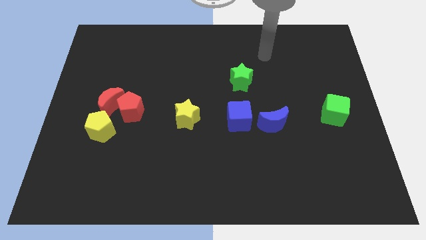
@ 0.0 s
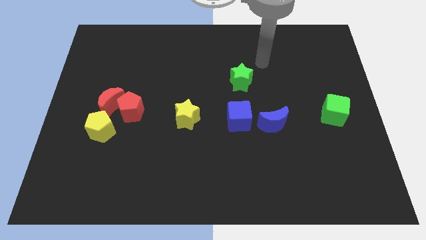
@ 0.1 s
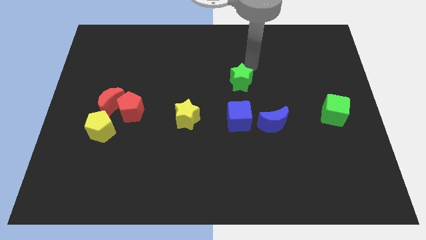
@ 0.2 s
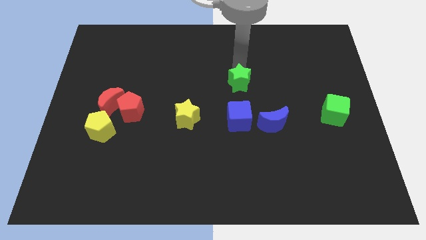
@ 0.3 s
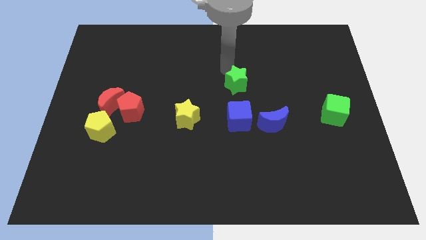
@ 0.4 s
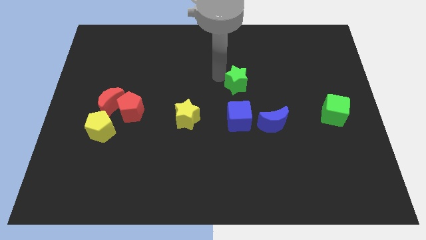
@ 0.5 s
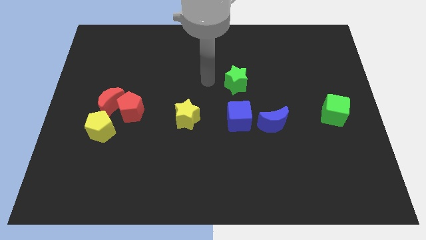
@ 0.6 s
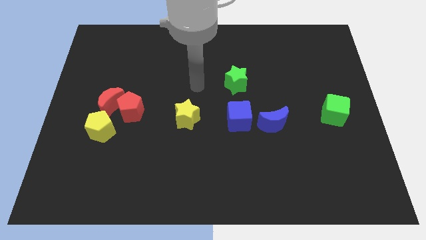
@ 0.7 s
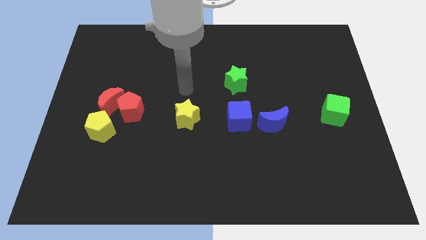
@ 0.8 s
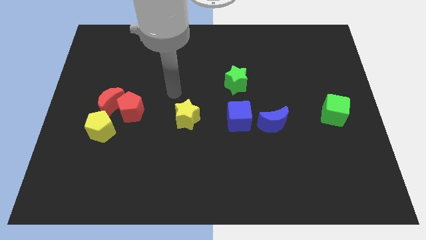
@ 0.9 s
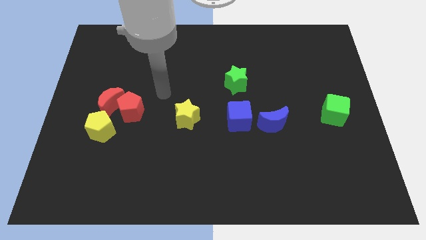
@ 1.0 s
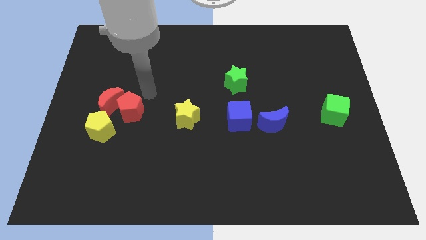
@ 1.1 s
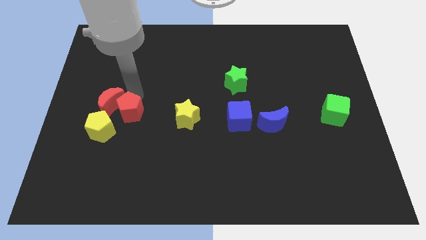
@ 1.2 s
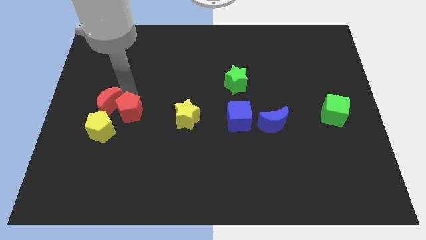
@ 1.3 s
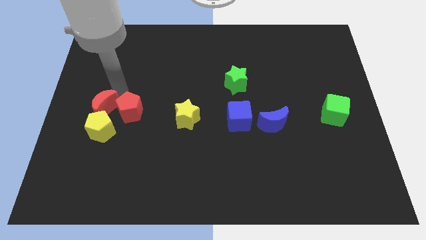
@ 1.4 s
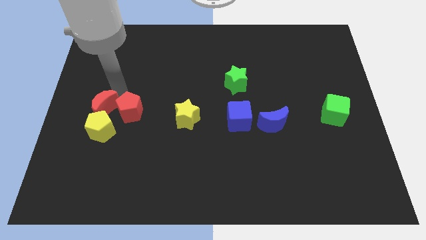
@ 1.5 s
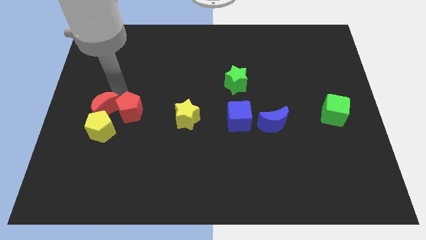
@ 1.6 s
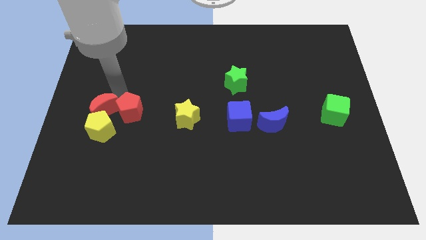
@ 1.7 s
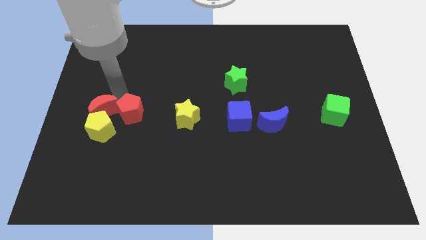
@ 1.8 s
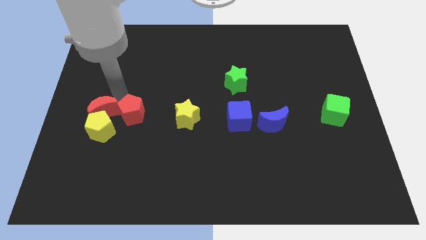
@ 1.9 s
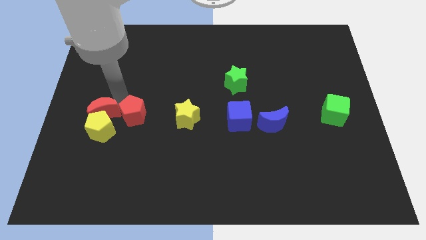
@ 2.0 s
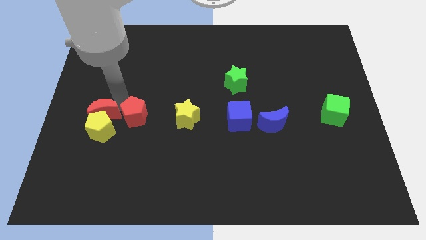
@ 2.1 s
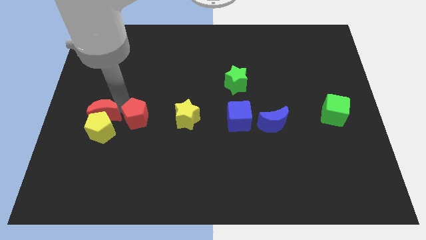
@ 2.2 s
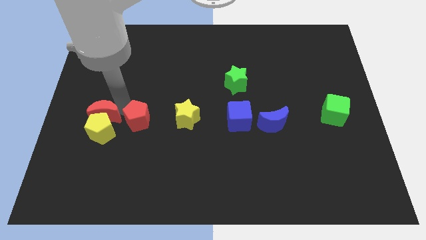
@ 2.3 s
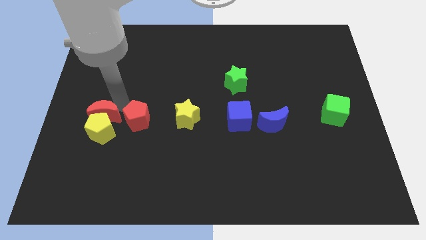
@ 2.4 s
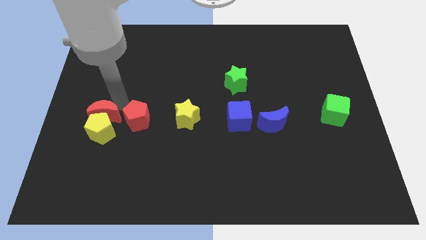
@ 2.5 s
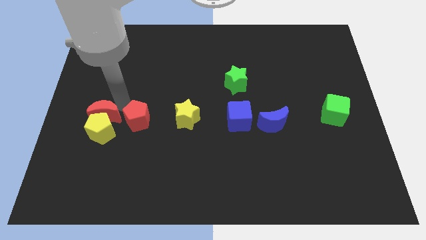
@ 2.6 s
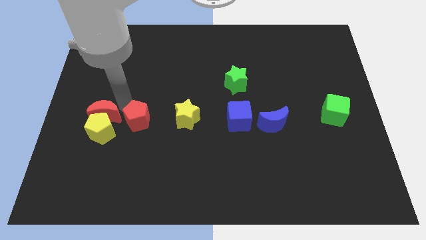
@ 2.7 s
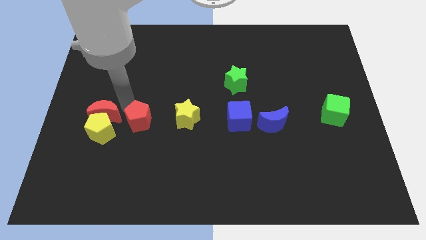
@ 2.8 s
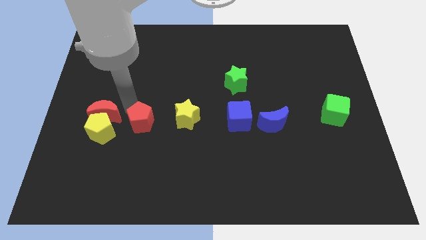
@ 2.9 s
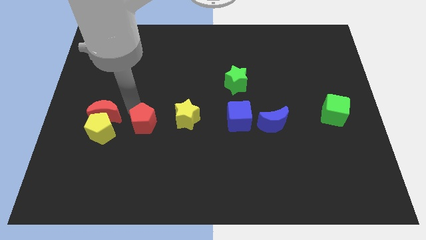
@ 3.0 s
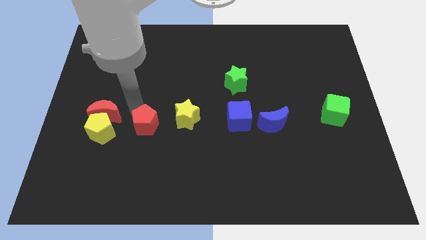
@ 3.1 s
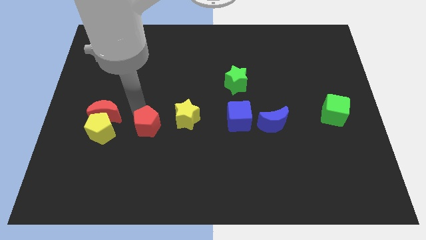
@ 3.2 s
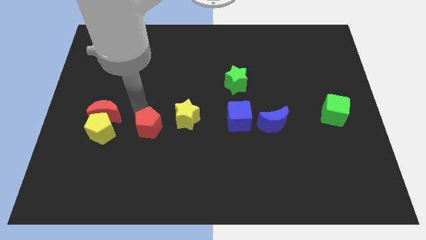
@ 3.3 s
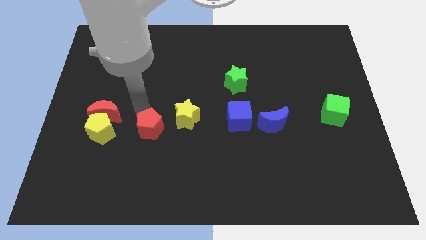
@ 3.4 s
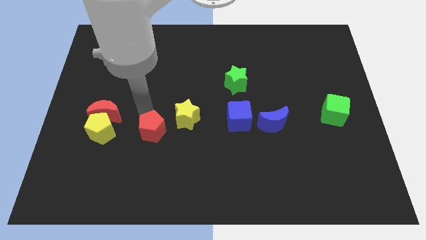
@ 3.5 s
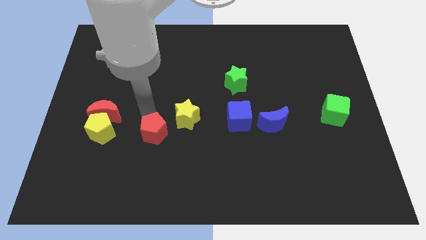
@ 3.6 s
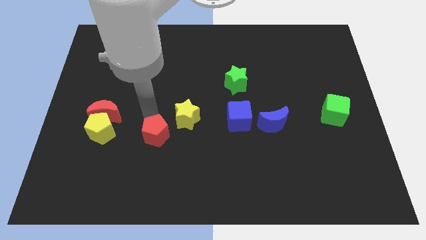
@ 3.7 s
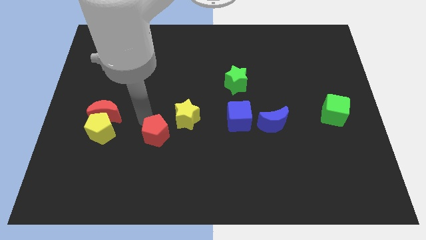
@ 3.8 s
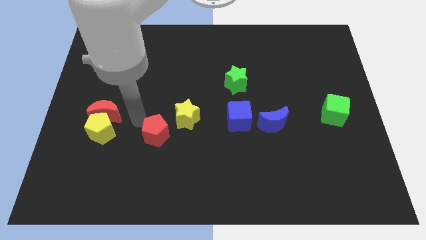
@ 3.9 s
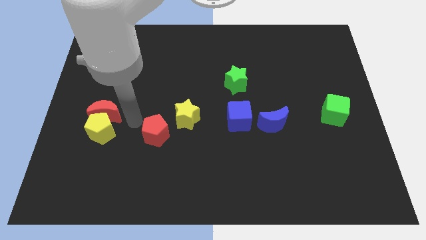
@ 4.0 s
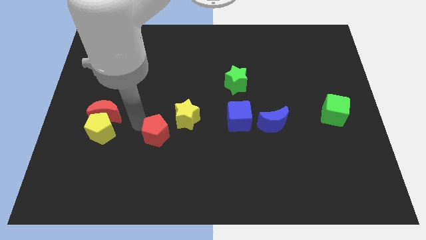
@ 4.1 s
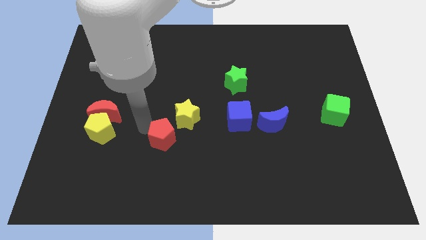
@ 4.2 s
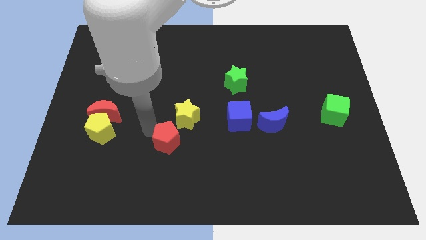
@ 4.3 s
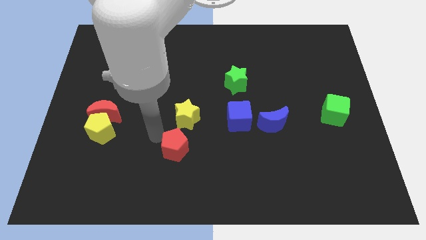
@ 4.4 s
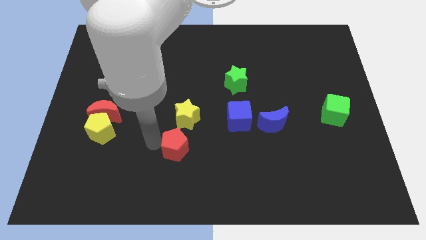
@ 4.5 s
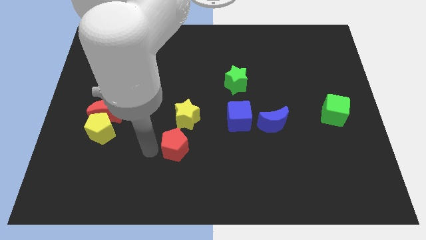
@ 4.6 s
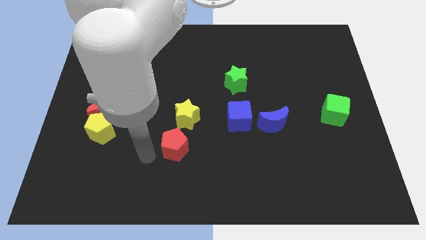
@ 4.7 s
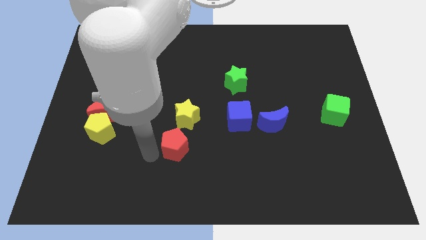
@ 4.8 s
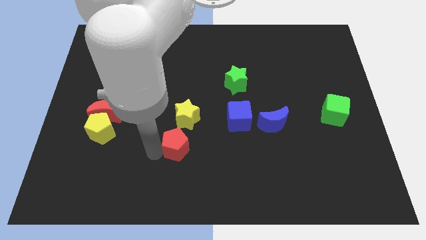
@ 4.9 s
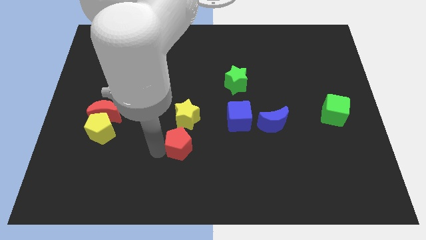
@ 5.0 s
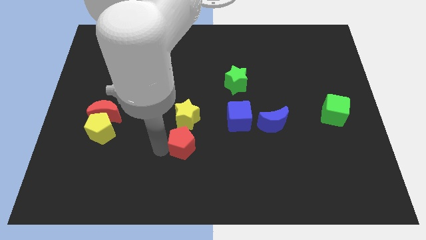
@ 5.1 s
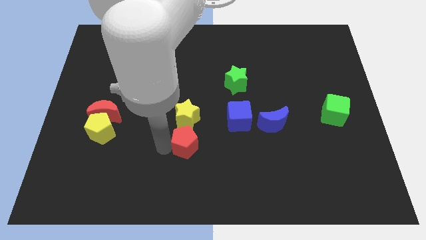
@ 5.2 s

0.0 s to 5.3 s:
move the red pentagon to the bottom right of the yellow star

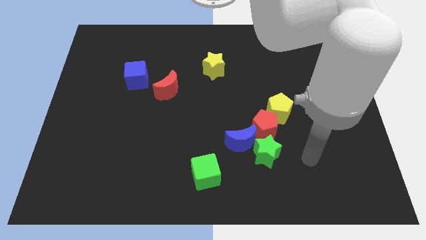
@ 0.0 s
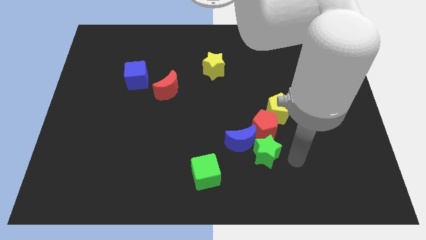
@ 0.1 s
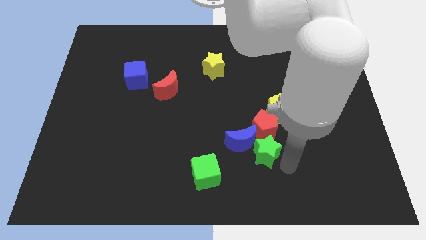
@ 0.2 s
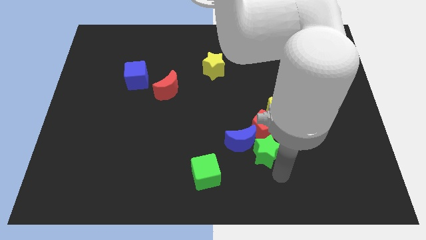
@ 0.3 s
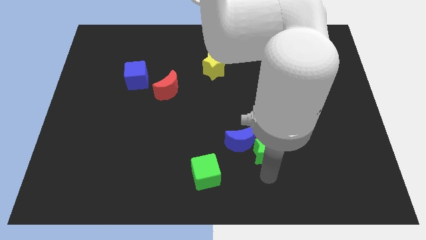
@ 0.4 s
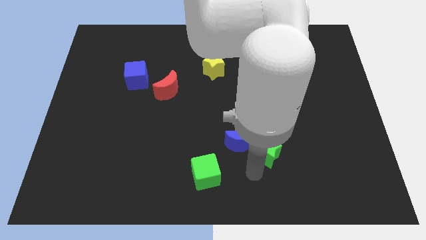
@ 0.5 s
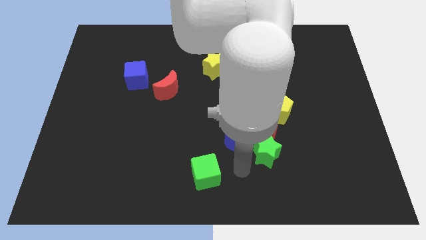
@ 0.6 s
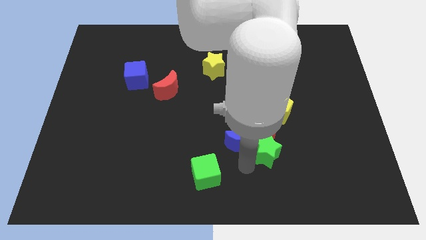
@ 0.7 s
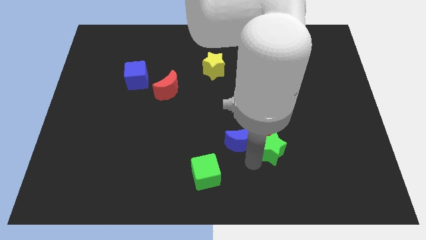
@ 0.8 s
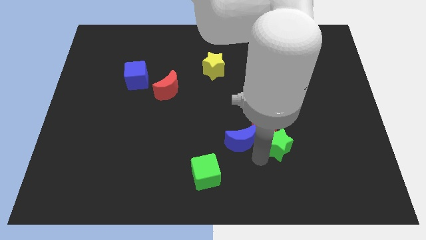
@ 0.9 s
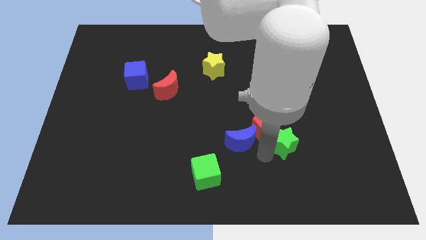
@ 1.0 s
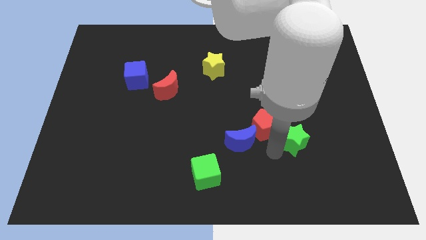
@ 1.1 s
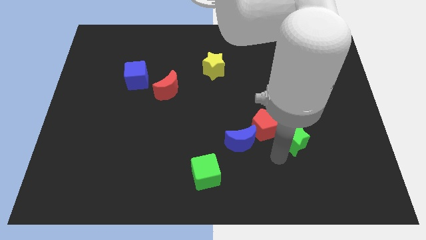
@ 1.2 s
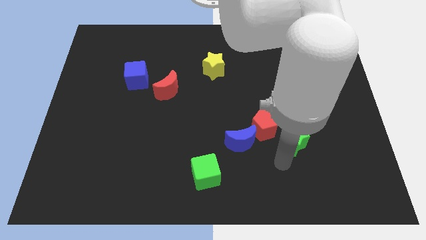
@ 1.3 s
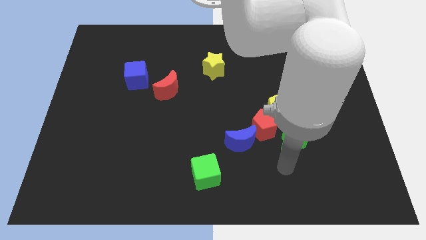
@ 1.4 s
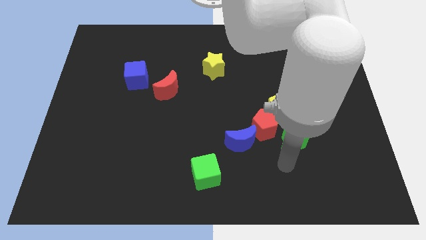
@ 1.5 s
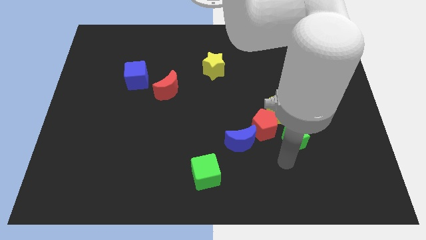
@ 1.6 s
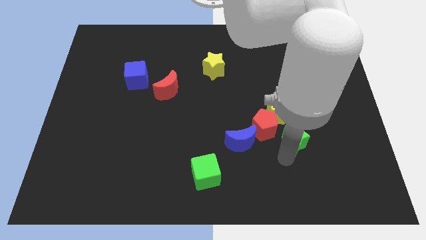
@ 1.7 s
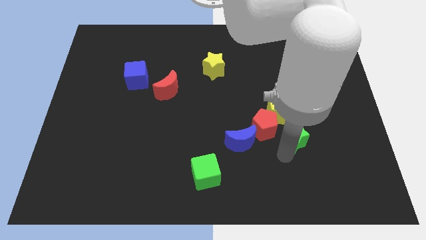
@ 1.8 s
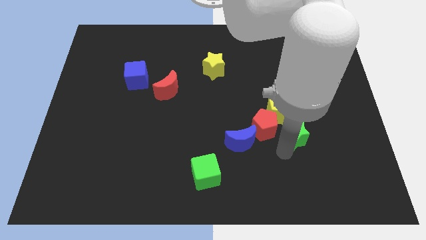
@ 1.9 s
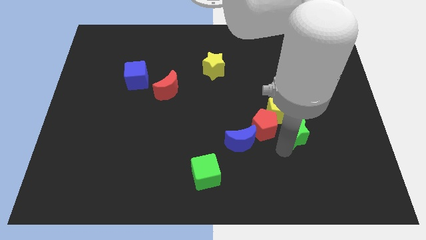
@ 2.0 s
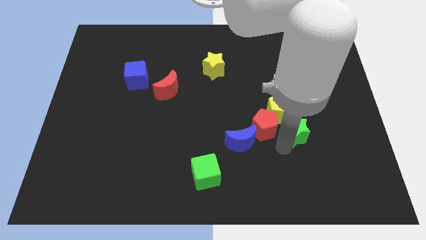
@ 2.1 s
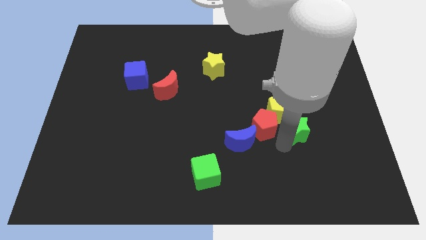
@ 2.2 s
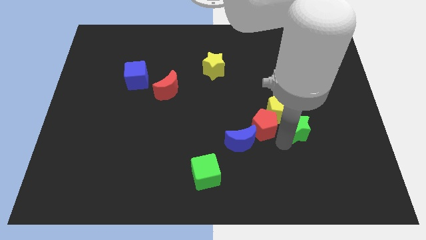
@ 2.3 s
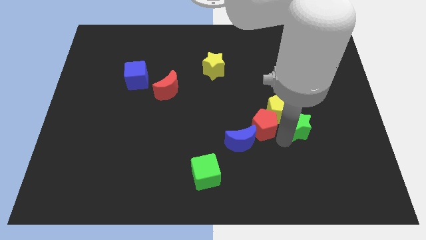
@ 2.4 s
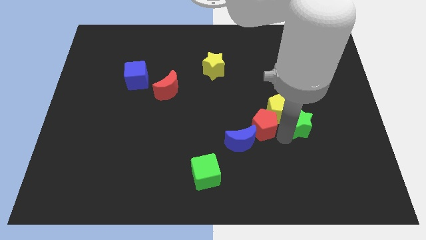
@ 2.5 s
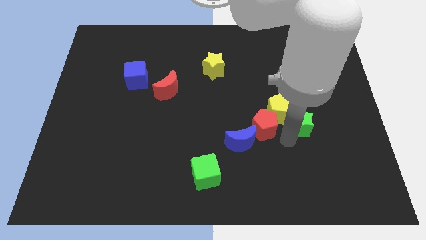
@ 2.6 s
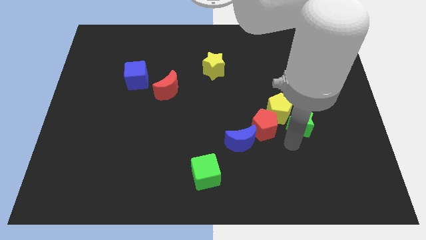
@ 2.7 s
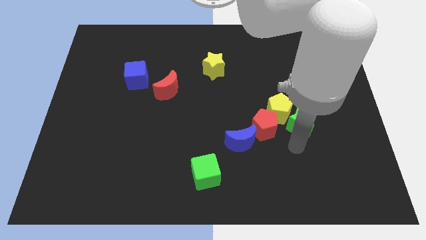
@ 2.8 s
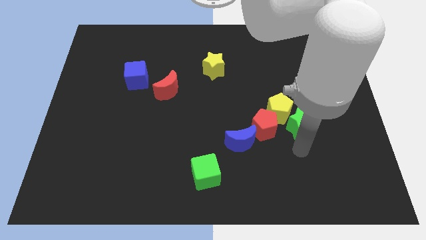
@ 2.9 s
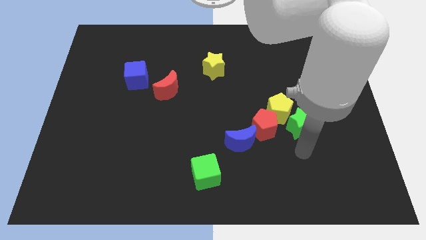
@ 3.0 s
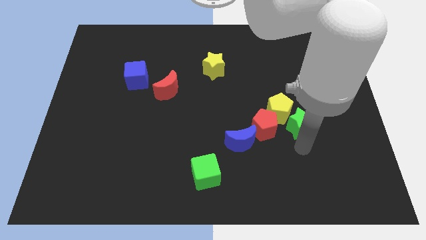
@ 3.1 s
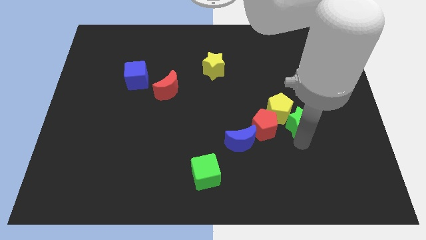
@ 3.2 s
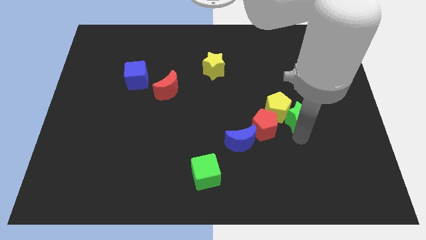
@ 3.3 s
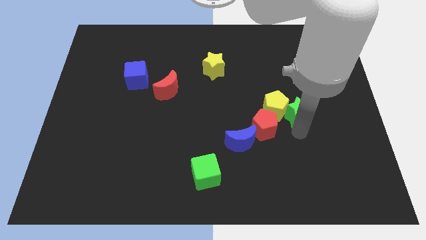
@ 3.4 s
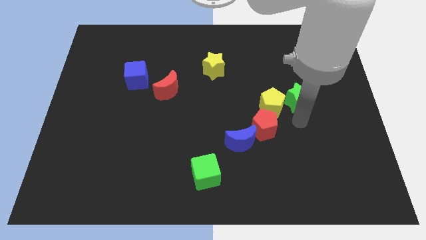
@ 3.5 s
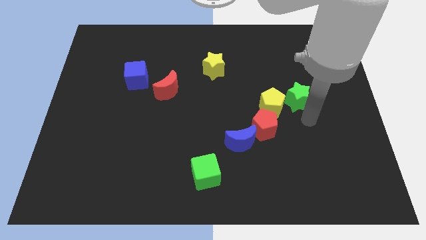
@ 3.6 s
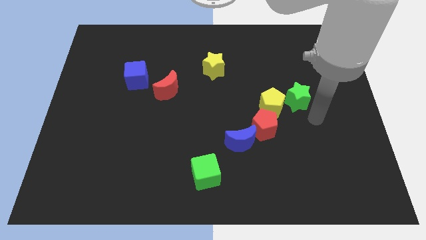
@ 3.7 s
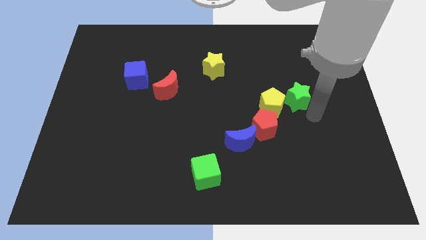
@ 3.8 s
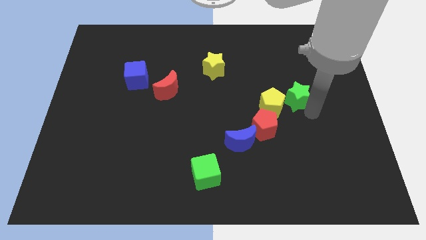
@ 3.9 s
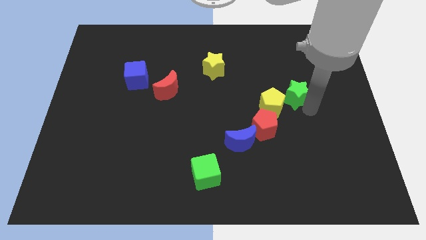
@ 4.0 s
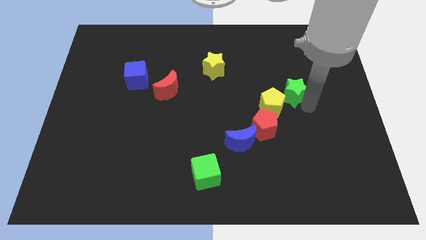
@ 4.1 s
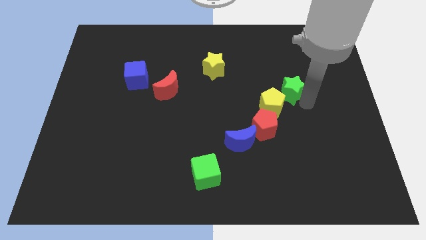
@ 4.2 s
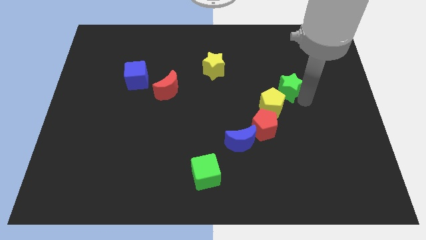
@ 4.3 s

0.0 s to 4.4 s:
put the green star to the top of the yellow pentagon
